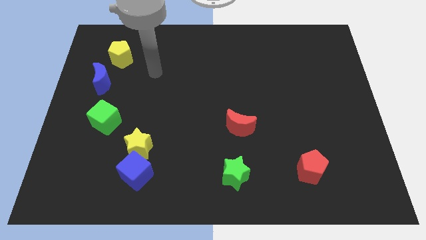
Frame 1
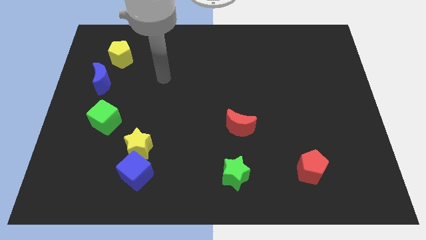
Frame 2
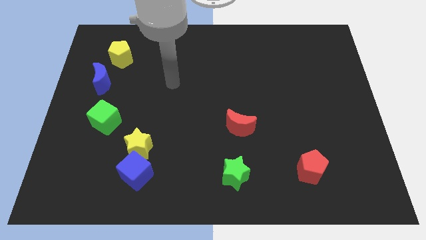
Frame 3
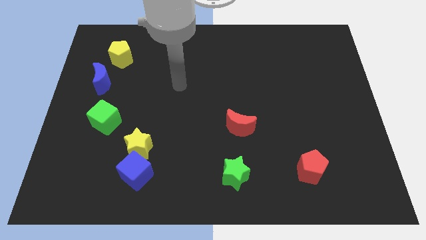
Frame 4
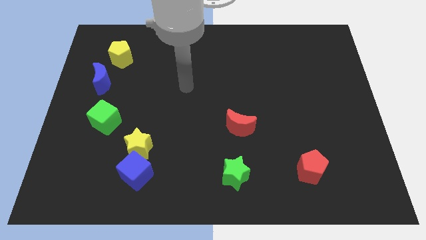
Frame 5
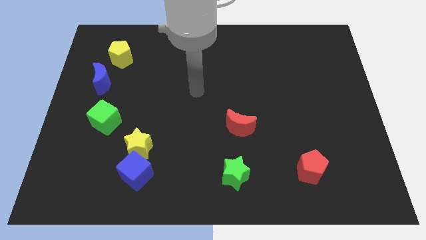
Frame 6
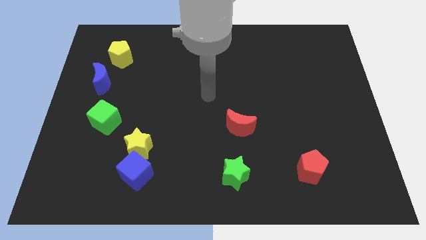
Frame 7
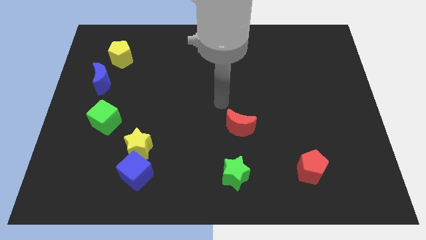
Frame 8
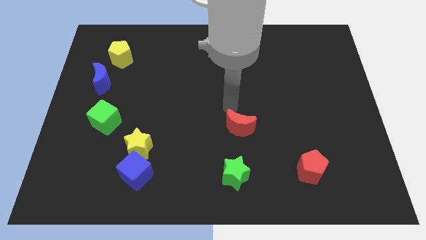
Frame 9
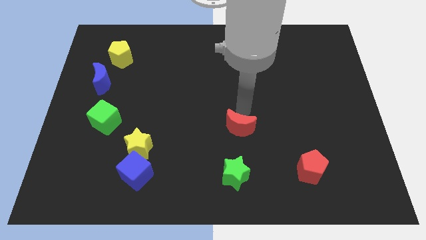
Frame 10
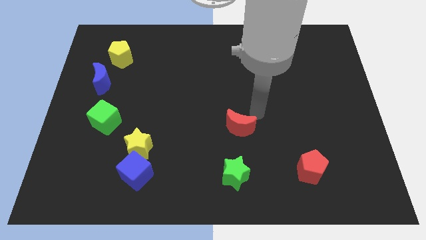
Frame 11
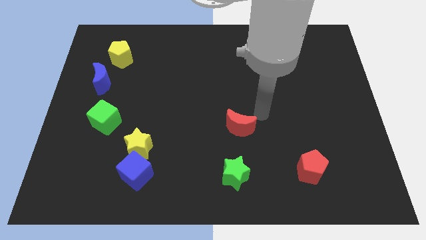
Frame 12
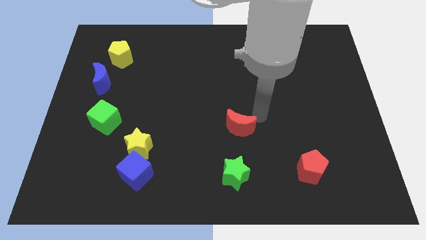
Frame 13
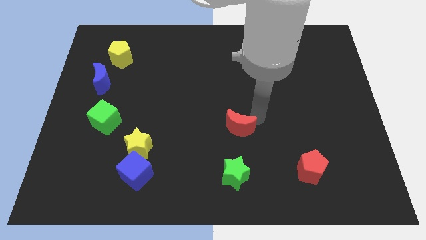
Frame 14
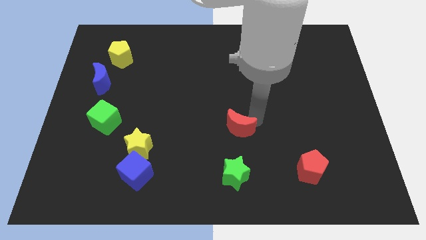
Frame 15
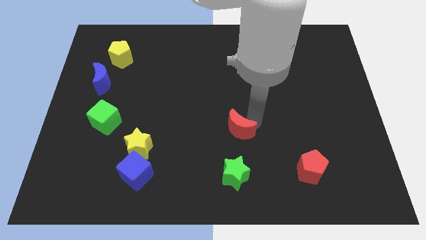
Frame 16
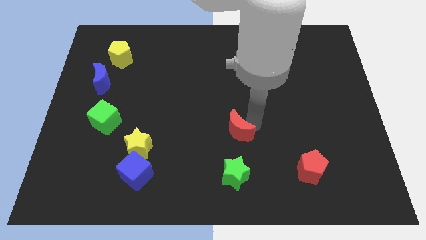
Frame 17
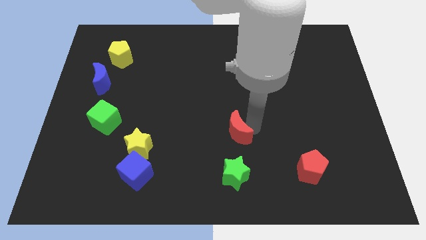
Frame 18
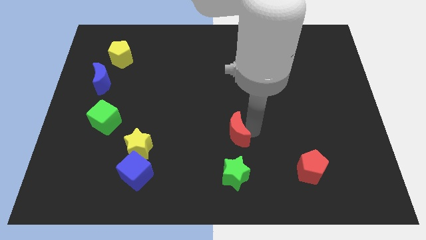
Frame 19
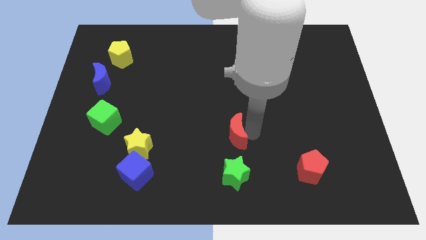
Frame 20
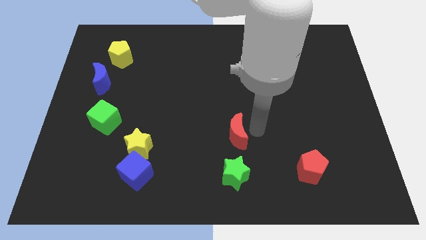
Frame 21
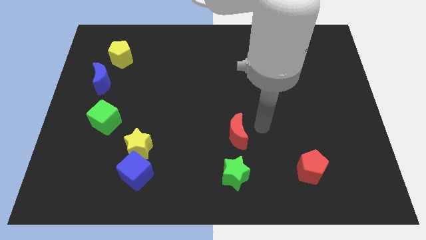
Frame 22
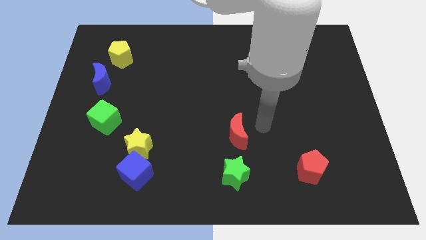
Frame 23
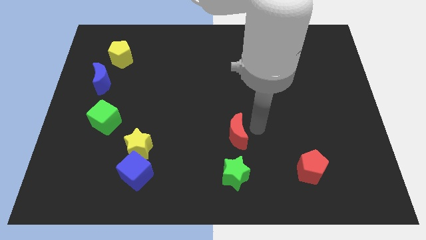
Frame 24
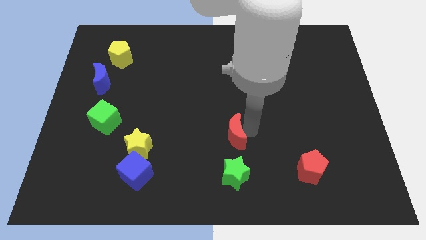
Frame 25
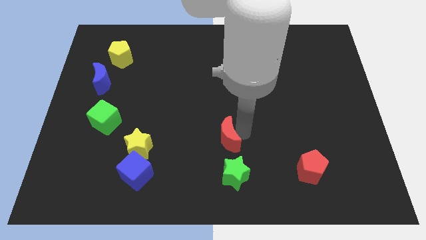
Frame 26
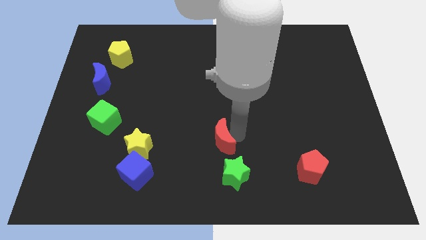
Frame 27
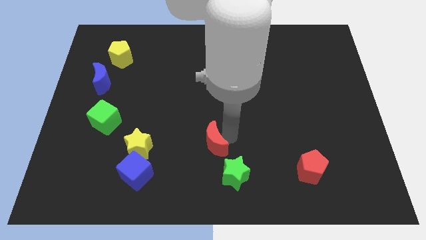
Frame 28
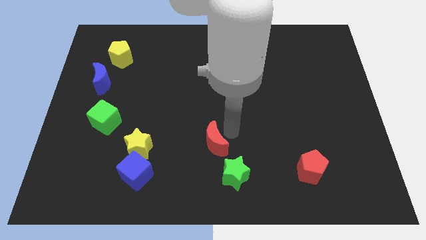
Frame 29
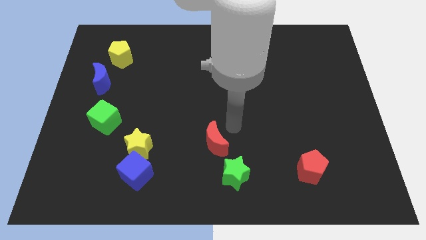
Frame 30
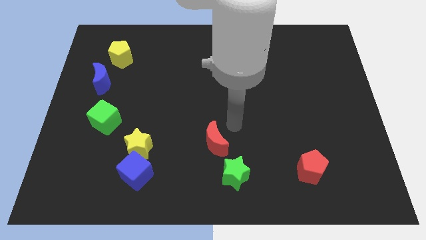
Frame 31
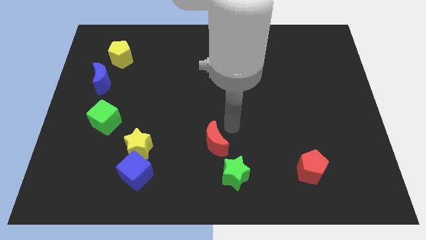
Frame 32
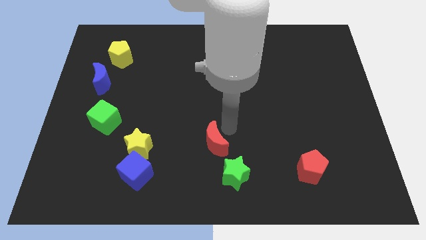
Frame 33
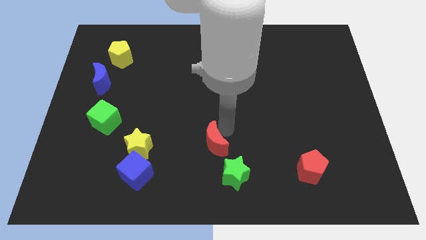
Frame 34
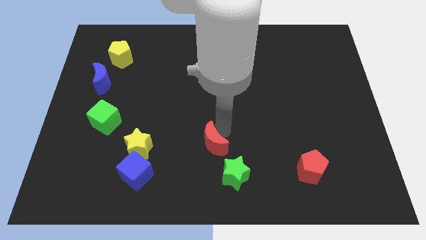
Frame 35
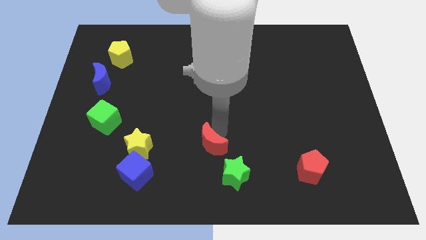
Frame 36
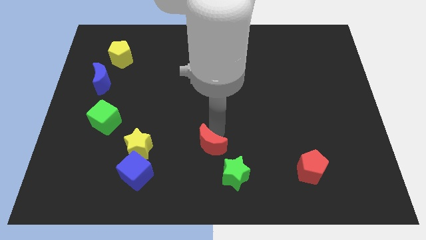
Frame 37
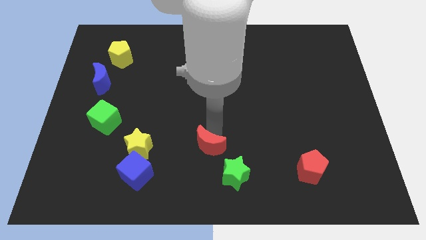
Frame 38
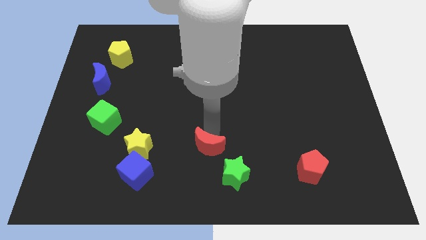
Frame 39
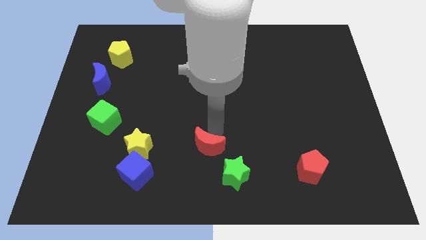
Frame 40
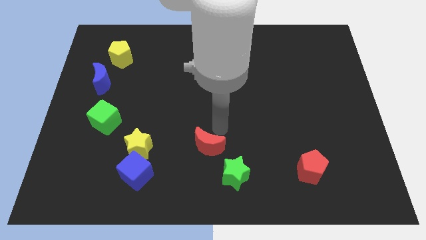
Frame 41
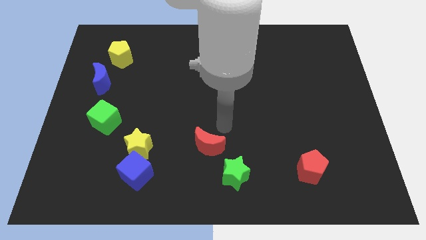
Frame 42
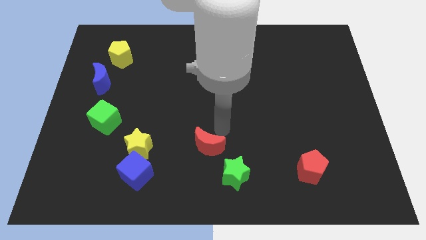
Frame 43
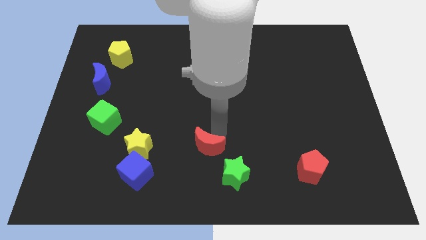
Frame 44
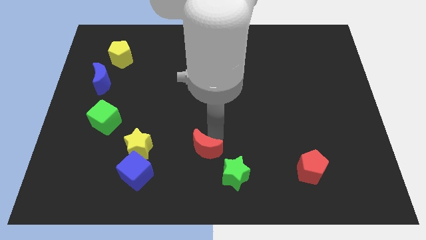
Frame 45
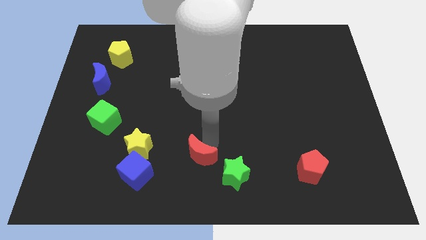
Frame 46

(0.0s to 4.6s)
push the red moon just left of the green star

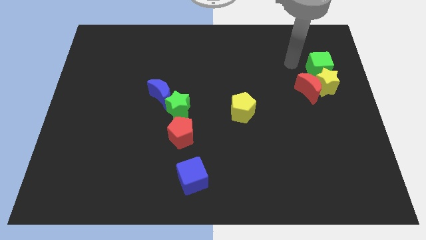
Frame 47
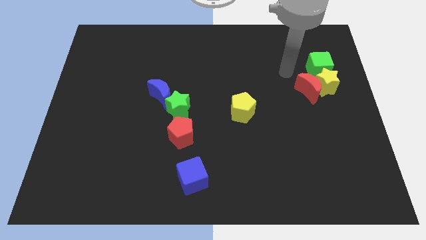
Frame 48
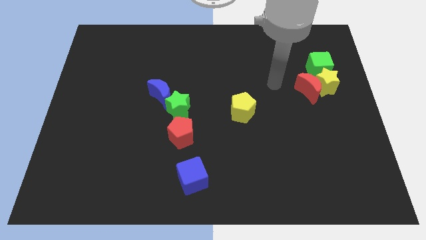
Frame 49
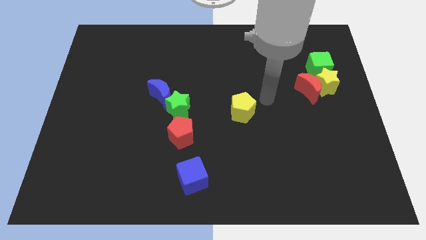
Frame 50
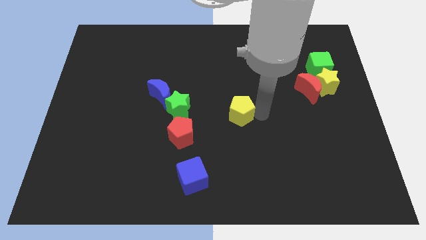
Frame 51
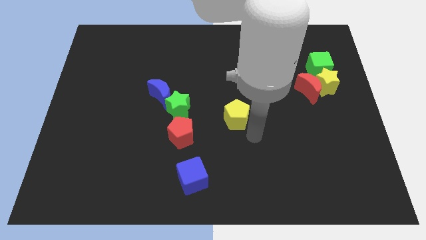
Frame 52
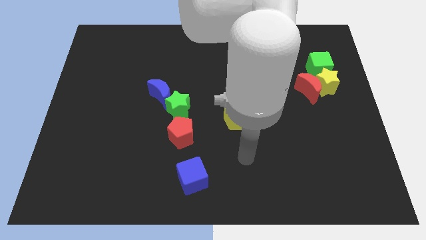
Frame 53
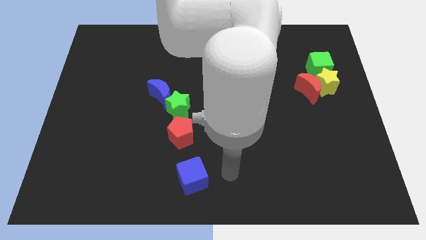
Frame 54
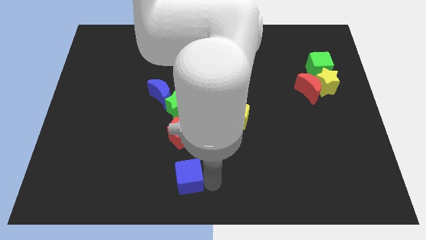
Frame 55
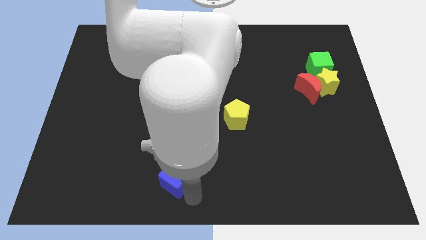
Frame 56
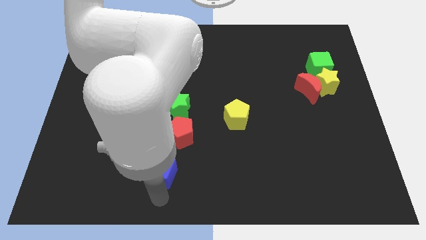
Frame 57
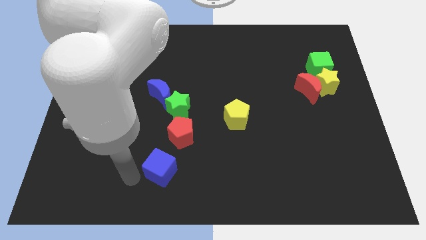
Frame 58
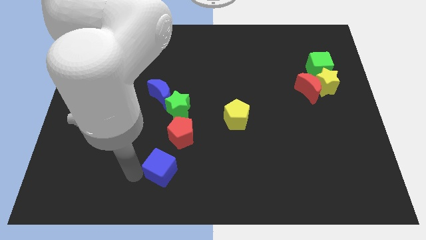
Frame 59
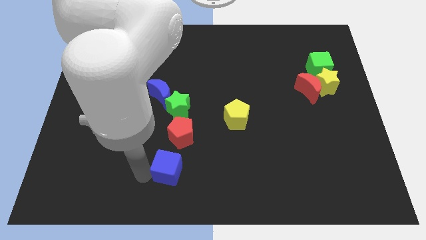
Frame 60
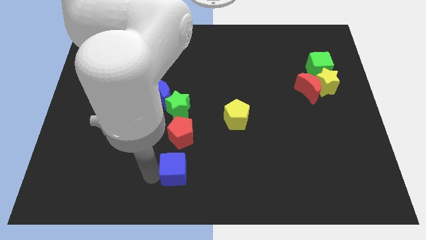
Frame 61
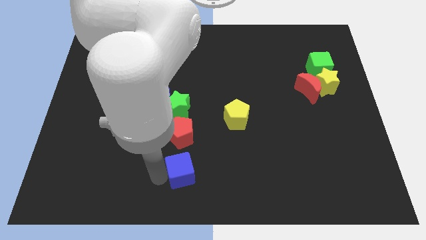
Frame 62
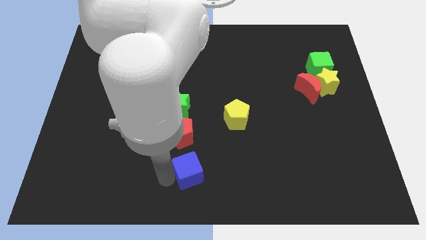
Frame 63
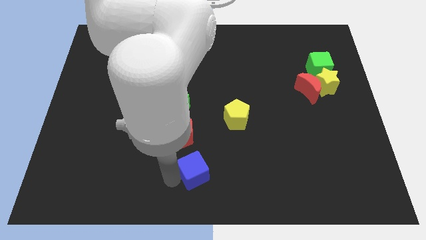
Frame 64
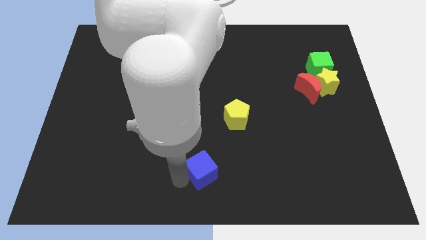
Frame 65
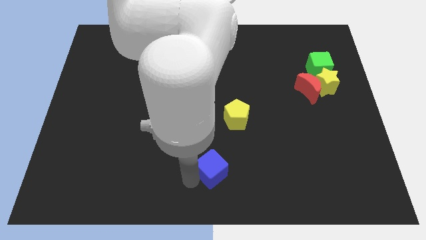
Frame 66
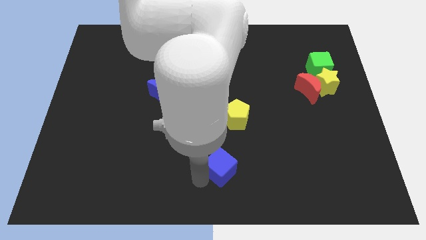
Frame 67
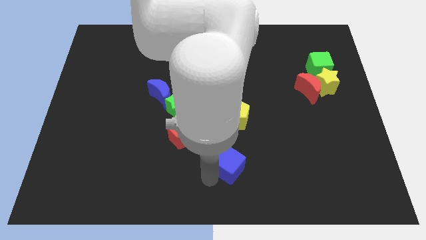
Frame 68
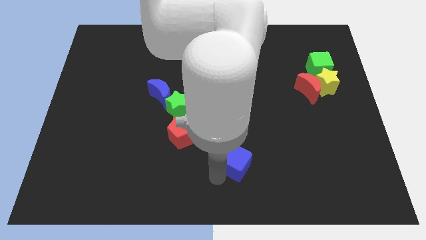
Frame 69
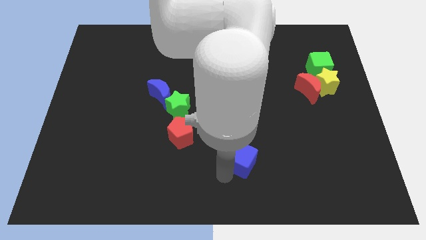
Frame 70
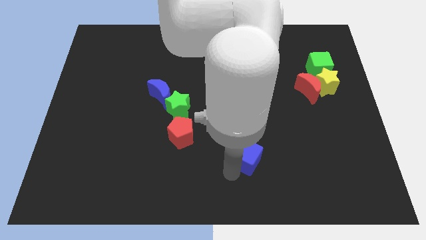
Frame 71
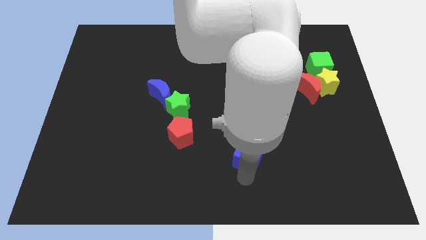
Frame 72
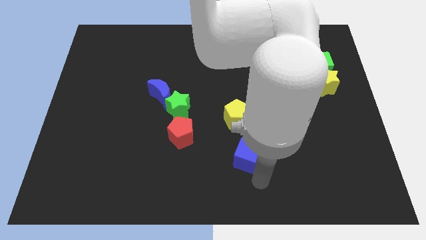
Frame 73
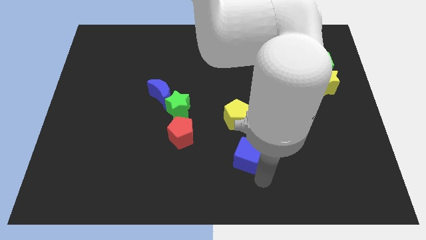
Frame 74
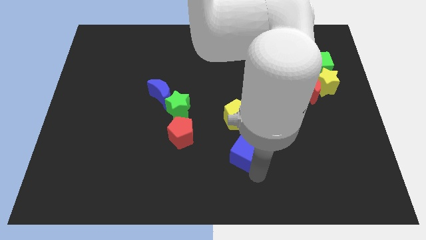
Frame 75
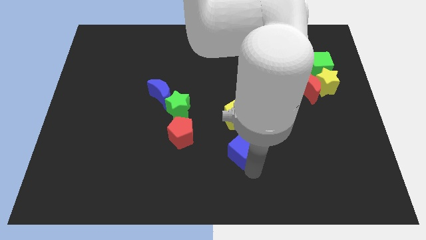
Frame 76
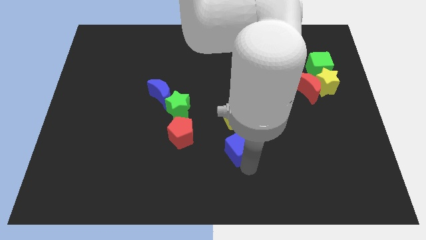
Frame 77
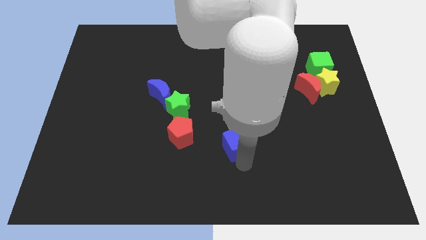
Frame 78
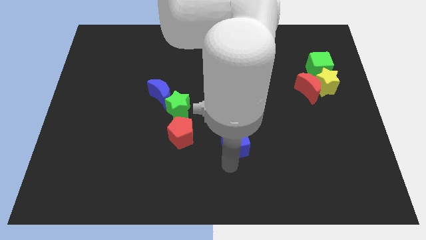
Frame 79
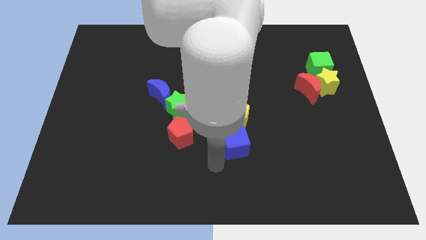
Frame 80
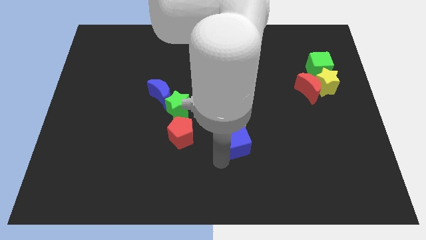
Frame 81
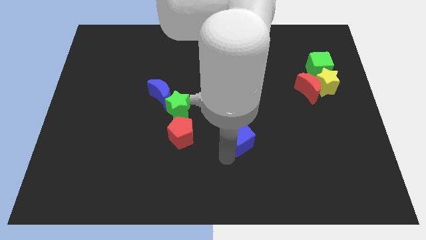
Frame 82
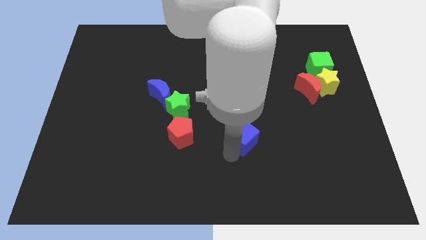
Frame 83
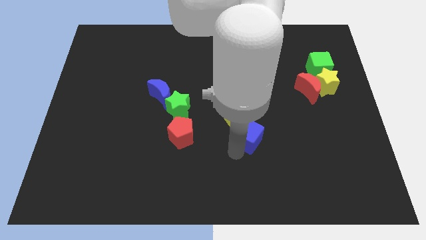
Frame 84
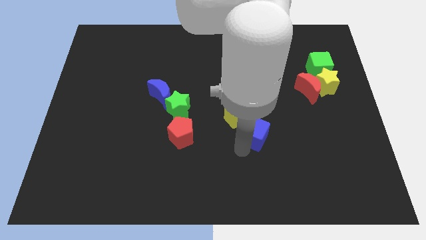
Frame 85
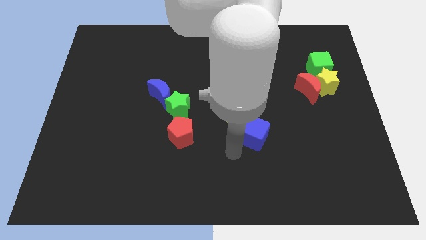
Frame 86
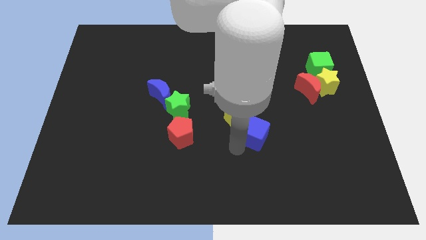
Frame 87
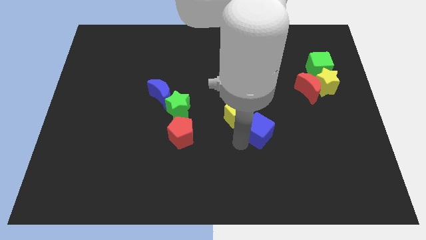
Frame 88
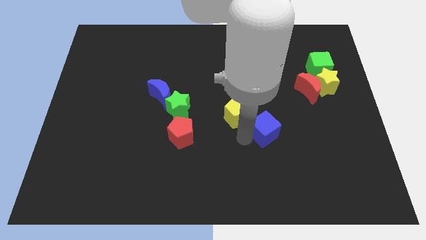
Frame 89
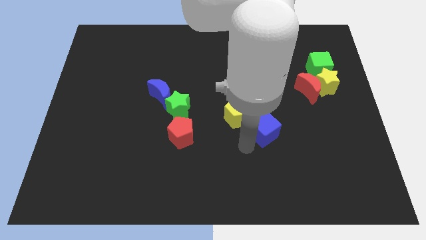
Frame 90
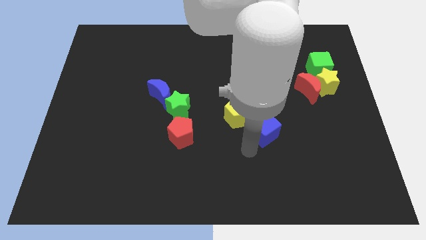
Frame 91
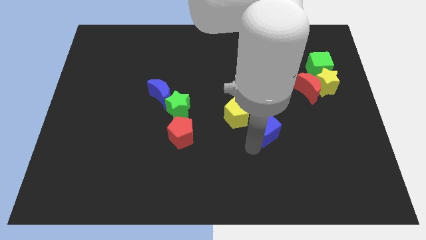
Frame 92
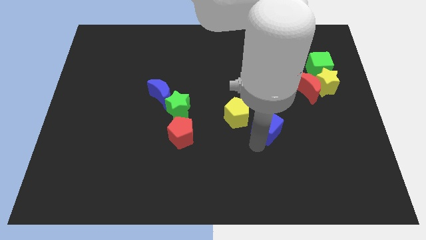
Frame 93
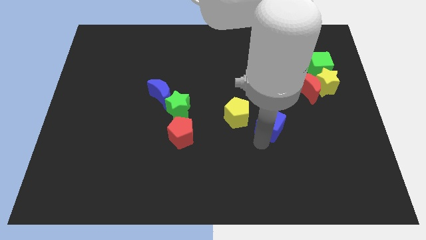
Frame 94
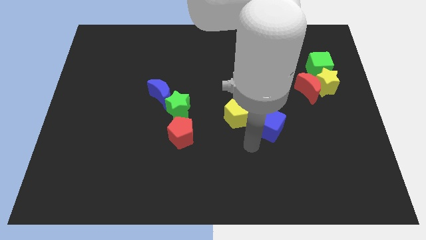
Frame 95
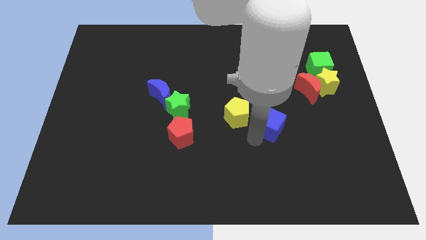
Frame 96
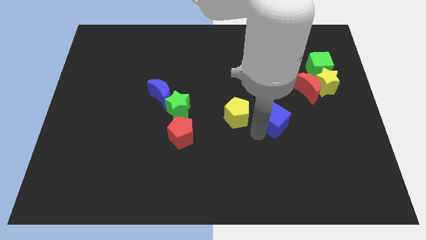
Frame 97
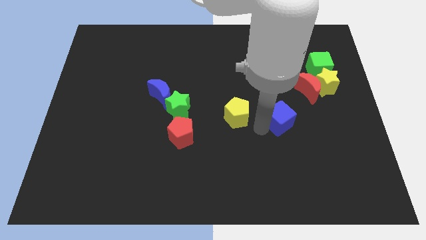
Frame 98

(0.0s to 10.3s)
push the blue cube diagonally down and to the left of the red moon
